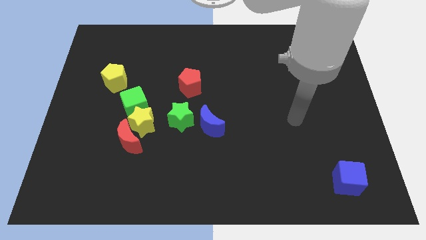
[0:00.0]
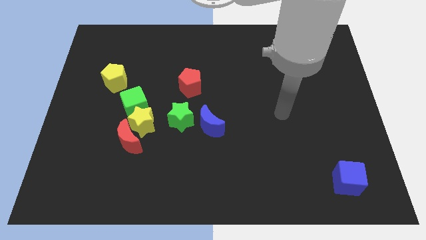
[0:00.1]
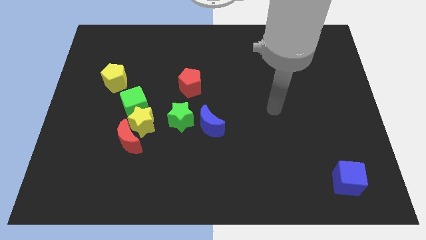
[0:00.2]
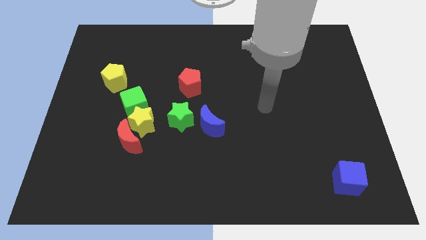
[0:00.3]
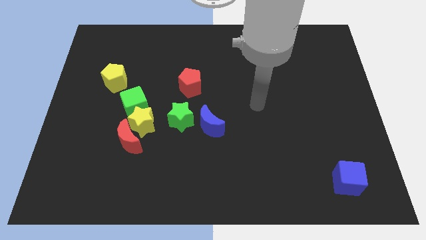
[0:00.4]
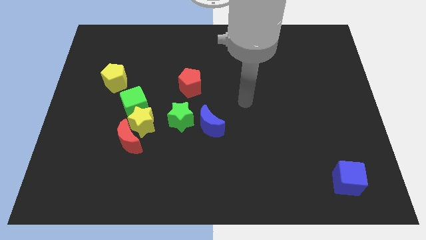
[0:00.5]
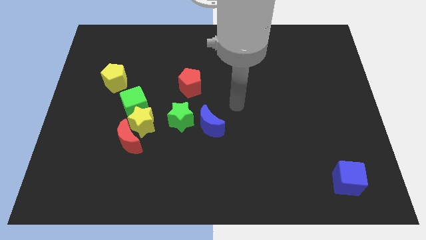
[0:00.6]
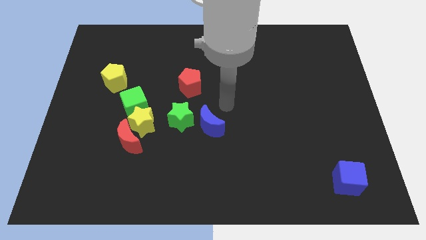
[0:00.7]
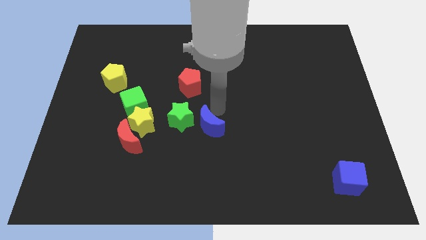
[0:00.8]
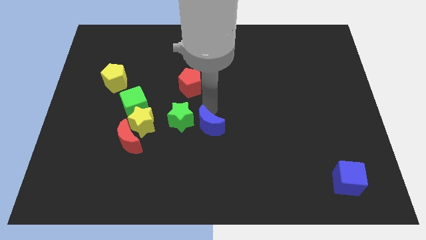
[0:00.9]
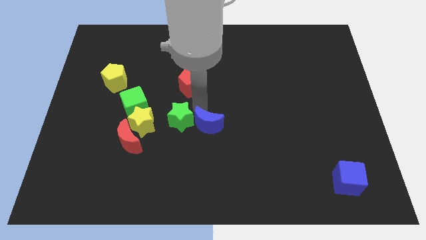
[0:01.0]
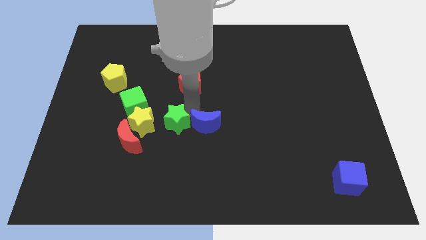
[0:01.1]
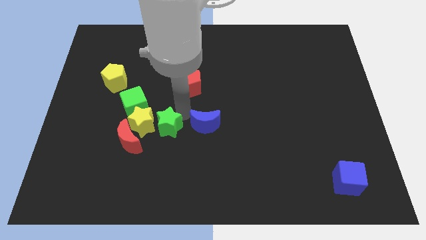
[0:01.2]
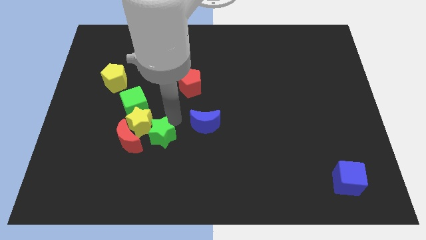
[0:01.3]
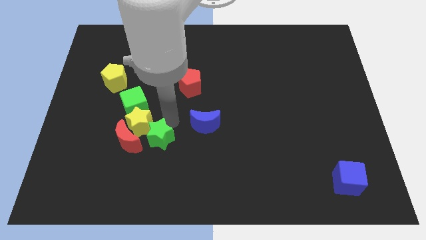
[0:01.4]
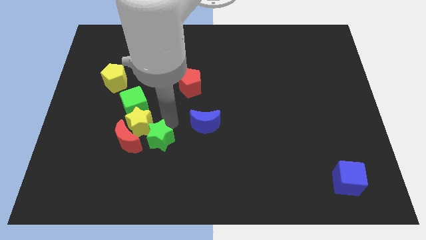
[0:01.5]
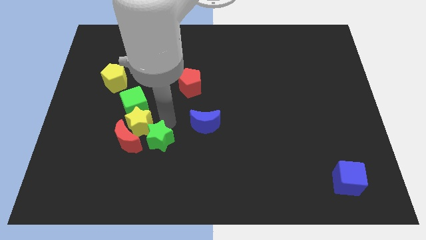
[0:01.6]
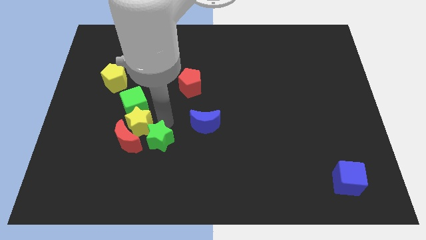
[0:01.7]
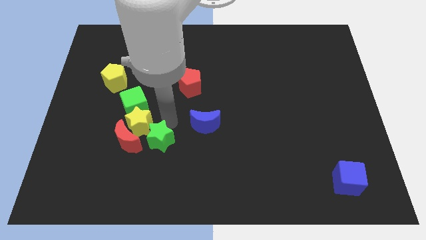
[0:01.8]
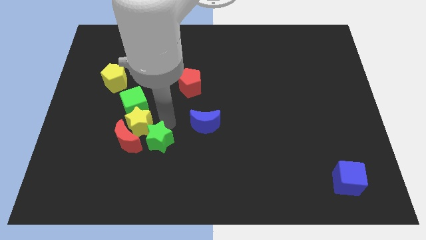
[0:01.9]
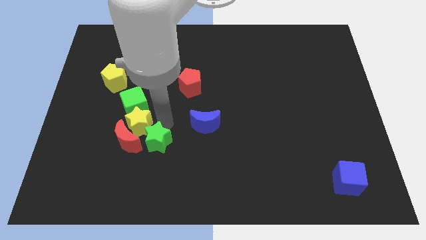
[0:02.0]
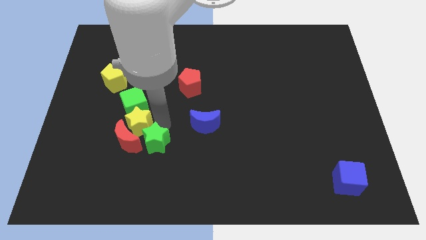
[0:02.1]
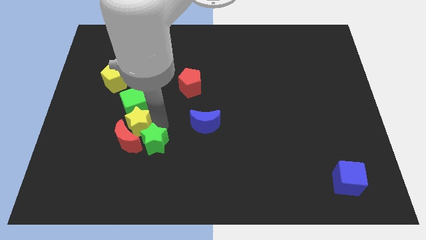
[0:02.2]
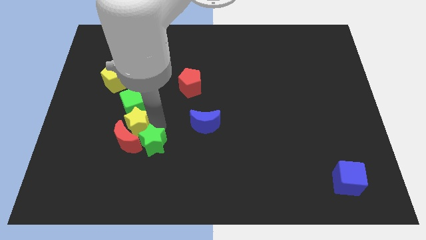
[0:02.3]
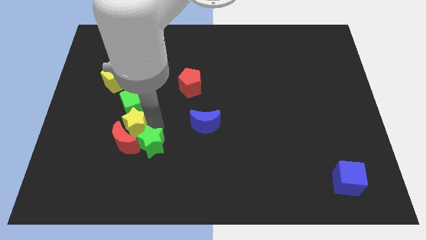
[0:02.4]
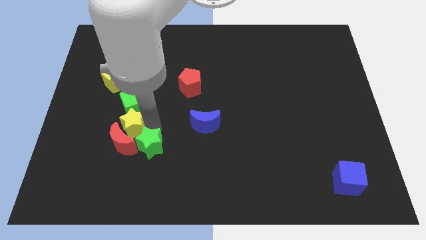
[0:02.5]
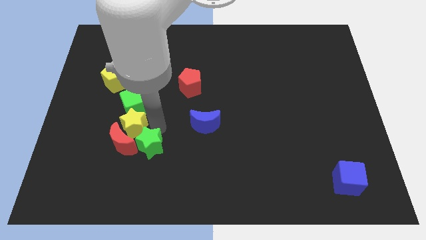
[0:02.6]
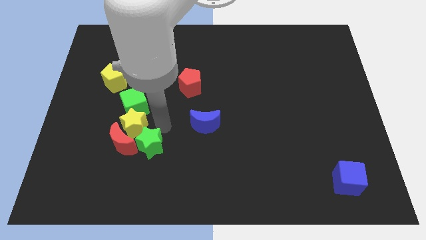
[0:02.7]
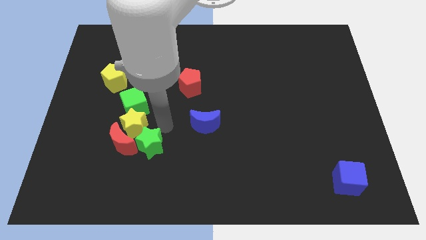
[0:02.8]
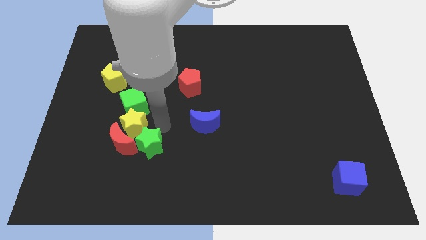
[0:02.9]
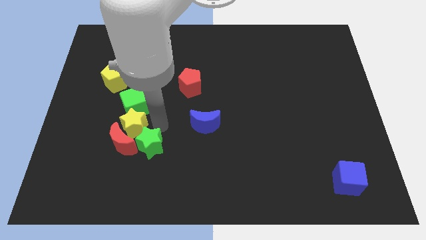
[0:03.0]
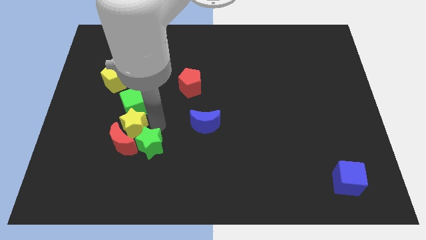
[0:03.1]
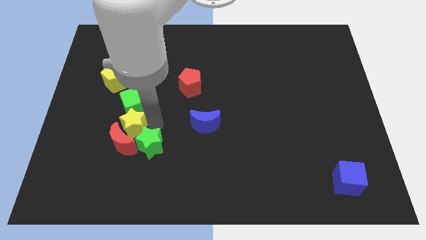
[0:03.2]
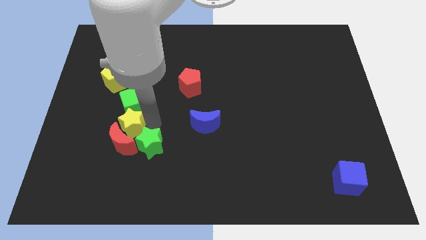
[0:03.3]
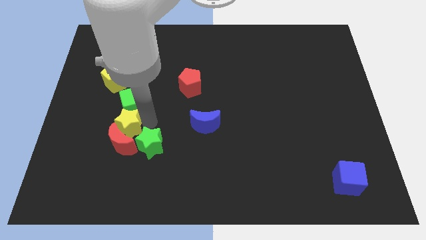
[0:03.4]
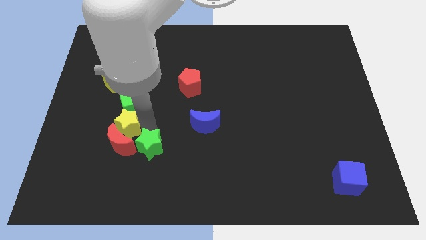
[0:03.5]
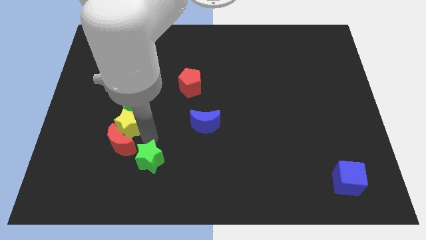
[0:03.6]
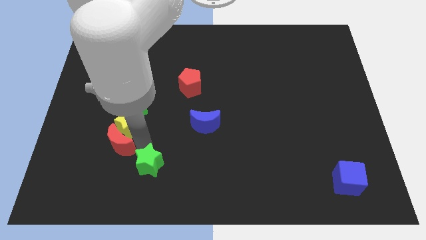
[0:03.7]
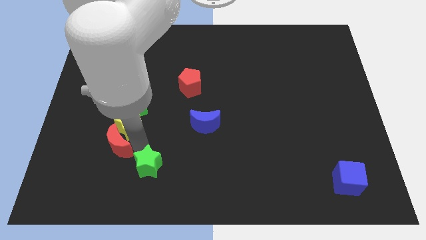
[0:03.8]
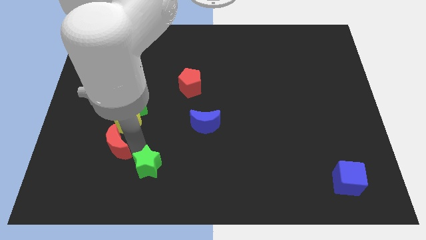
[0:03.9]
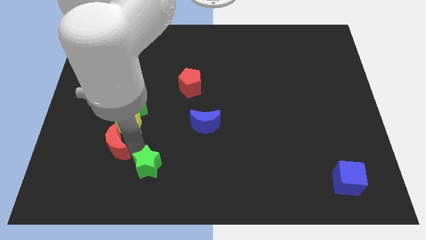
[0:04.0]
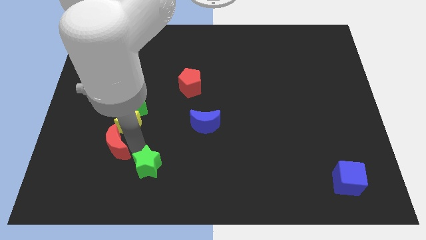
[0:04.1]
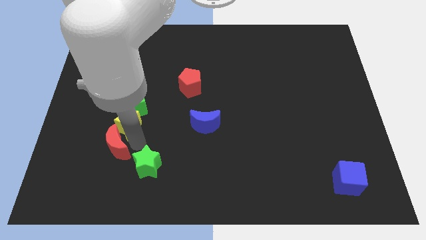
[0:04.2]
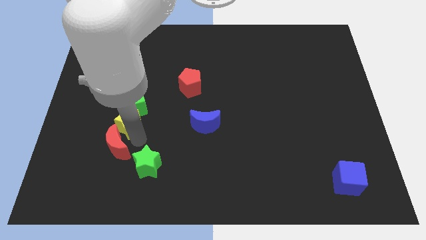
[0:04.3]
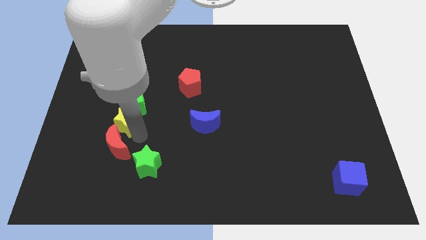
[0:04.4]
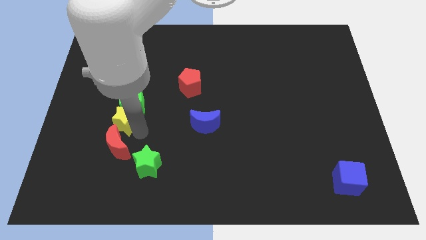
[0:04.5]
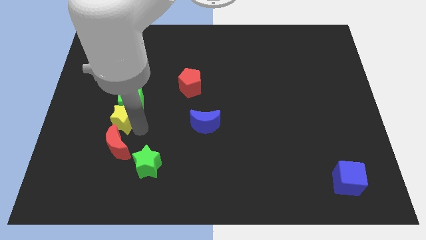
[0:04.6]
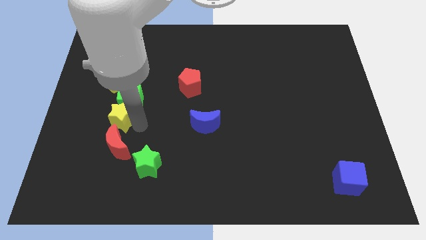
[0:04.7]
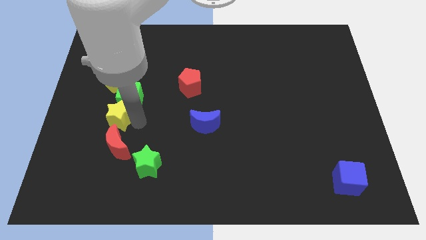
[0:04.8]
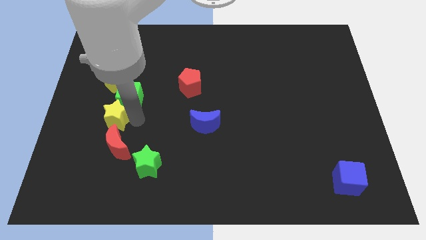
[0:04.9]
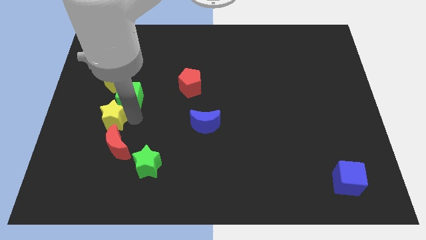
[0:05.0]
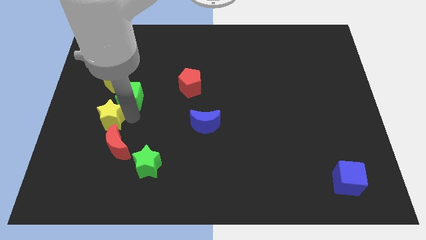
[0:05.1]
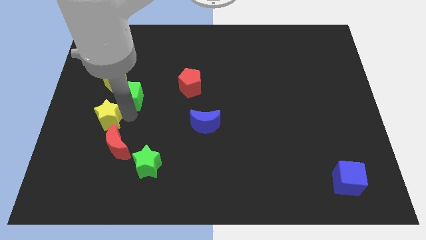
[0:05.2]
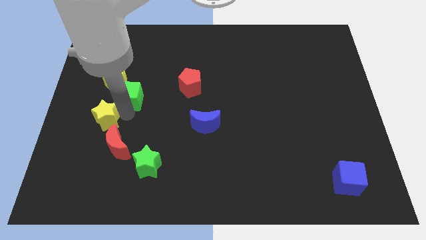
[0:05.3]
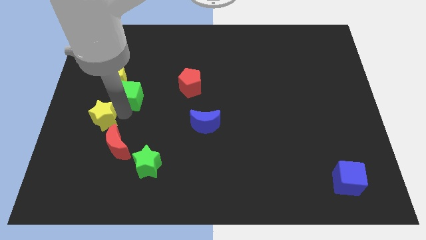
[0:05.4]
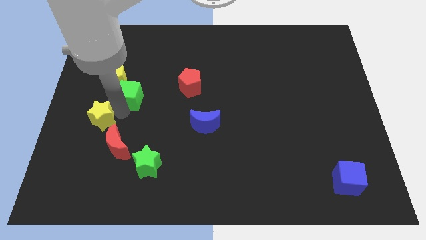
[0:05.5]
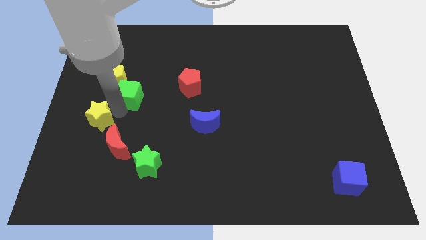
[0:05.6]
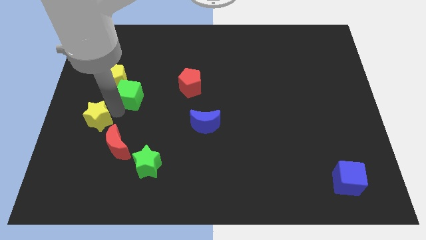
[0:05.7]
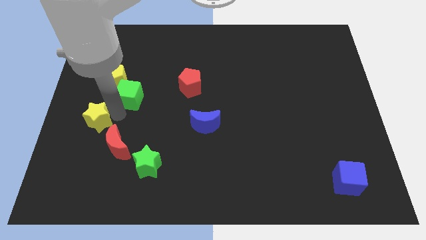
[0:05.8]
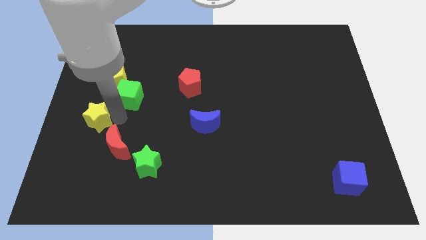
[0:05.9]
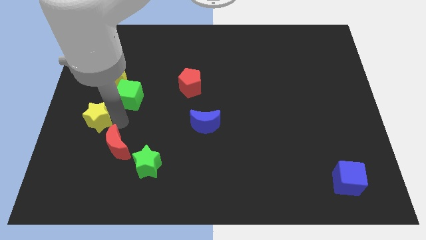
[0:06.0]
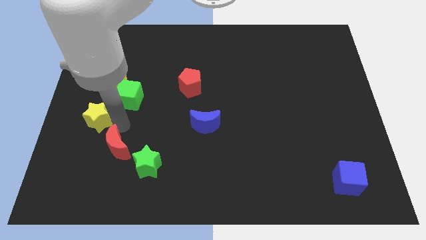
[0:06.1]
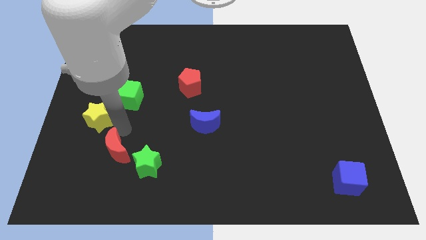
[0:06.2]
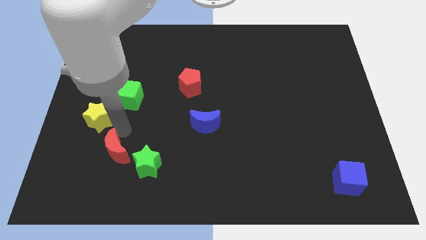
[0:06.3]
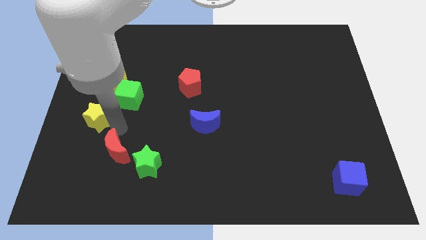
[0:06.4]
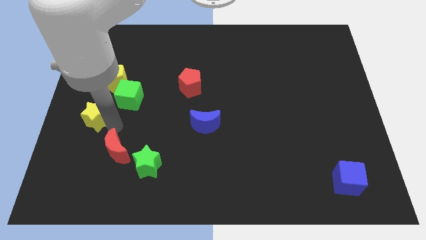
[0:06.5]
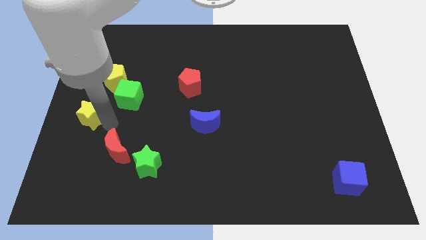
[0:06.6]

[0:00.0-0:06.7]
pull the yellow star apart from the red moon, green cube, and green star

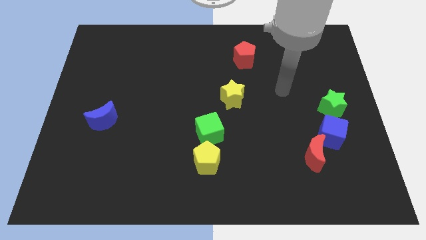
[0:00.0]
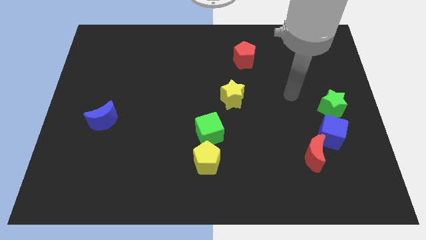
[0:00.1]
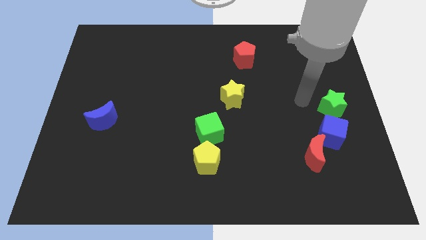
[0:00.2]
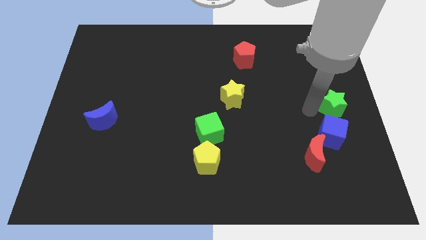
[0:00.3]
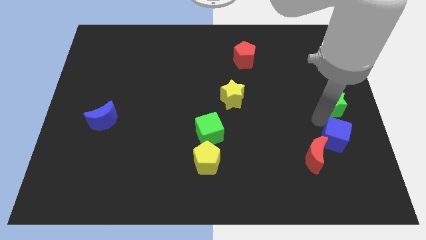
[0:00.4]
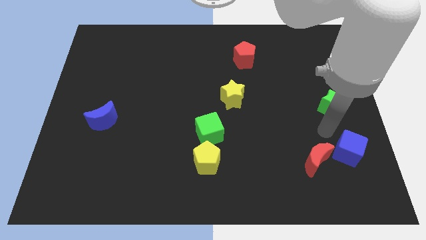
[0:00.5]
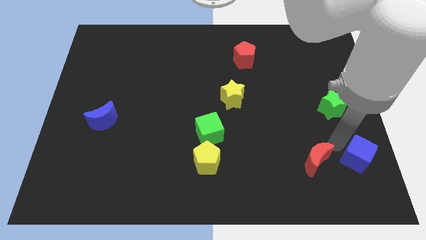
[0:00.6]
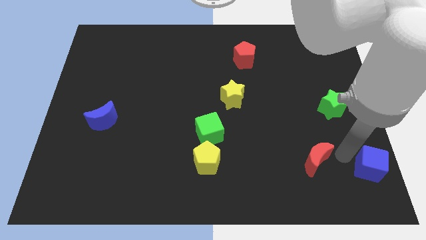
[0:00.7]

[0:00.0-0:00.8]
move the red moon away from the blue cube

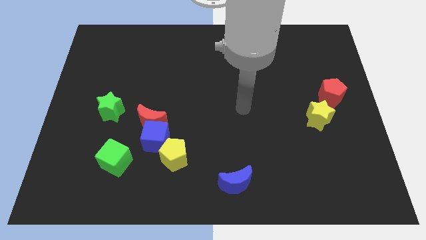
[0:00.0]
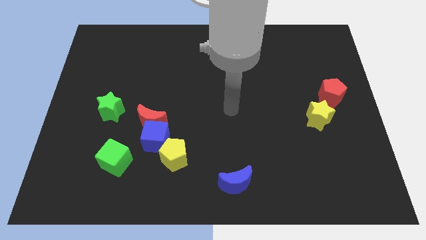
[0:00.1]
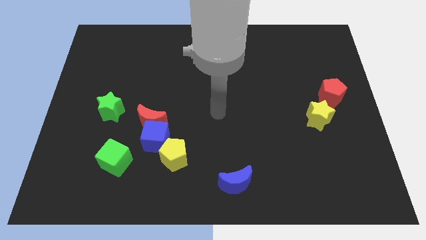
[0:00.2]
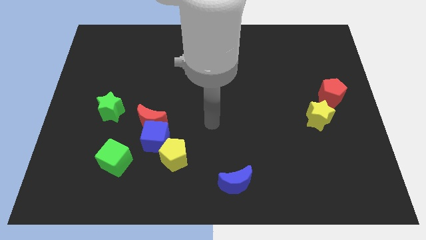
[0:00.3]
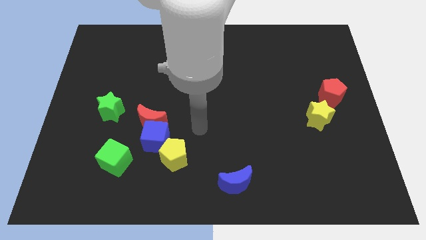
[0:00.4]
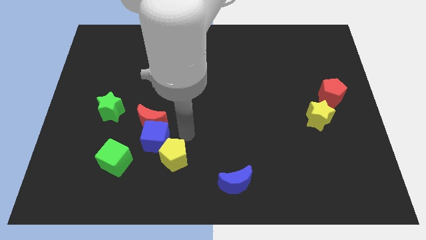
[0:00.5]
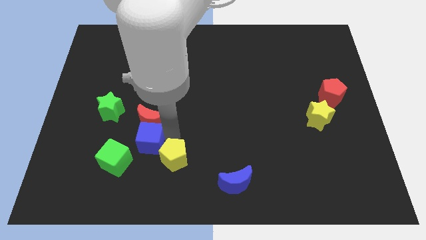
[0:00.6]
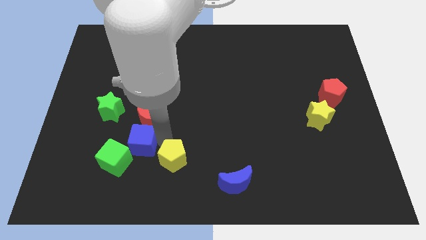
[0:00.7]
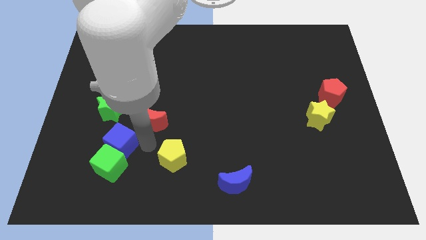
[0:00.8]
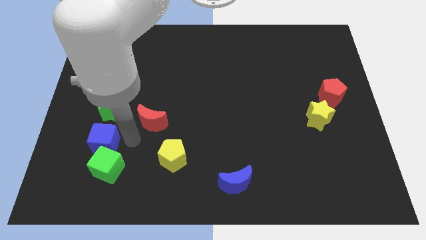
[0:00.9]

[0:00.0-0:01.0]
separate the red moon from the blue cube

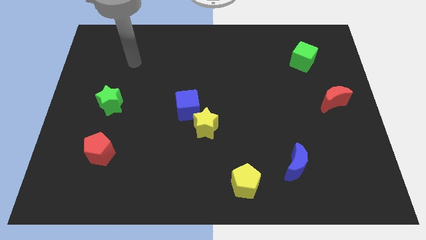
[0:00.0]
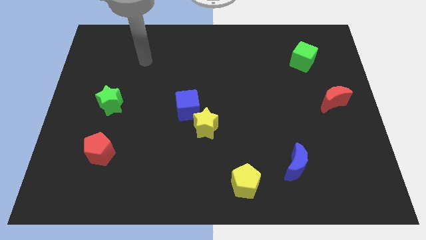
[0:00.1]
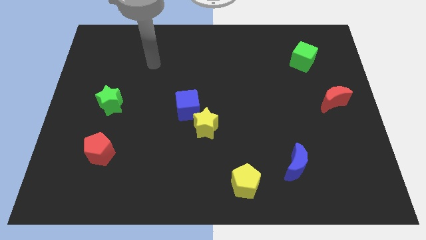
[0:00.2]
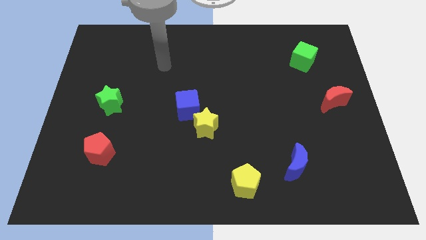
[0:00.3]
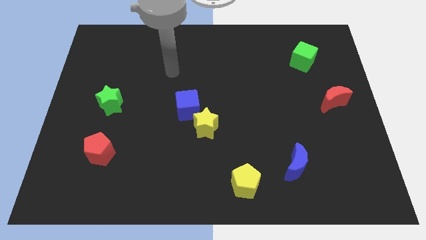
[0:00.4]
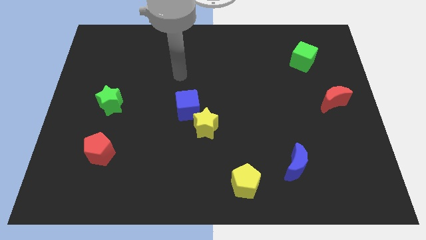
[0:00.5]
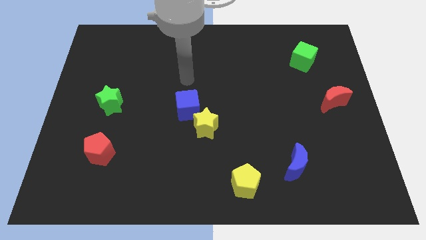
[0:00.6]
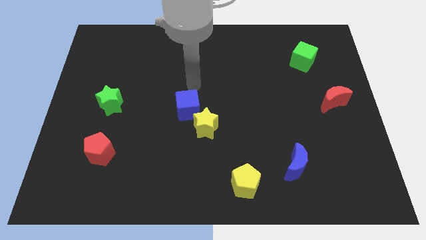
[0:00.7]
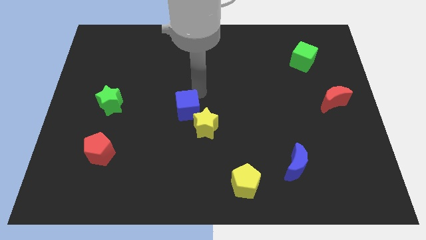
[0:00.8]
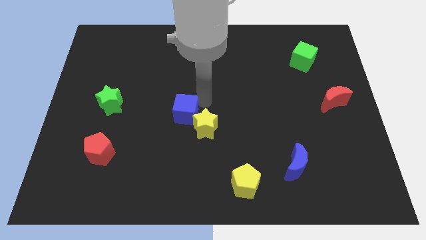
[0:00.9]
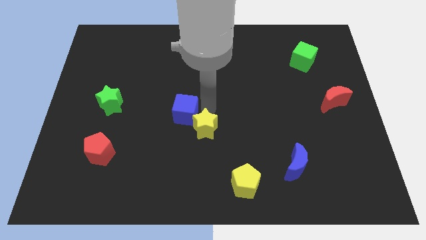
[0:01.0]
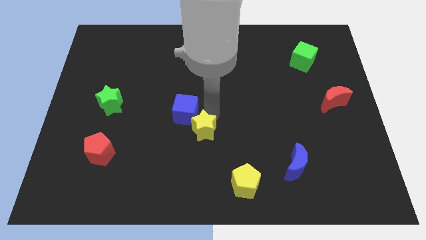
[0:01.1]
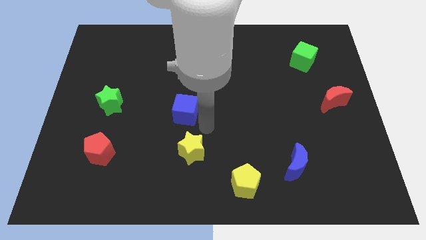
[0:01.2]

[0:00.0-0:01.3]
move the blue cube away from the yellow star
